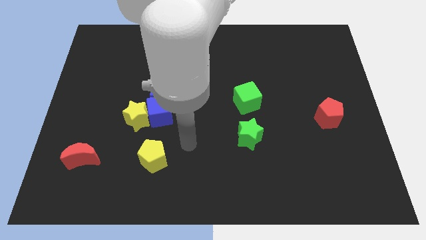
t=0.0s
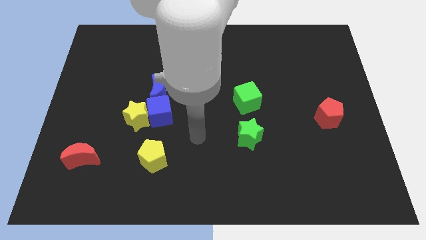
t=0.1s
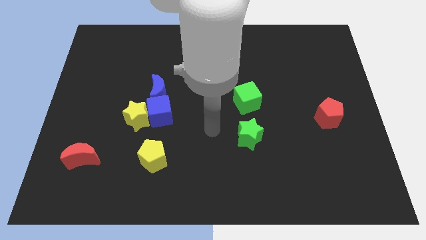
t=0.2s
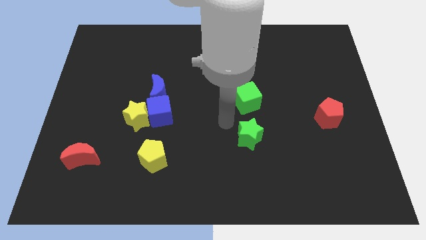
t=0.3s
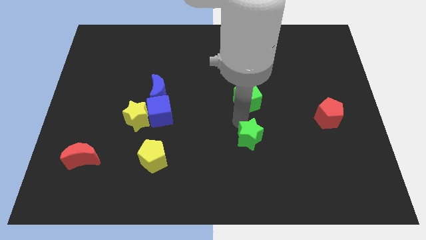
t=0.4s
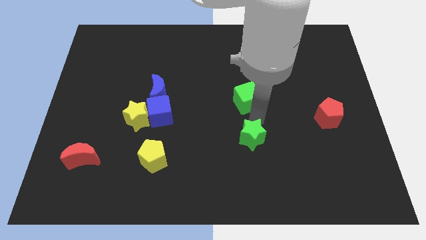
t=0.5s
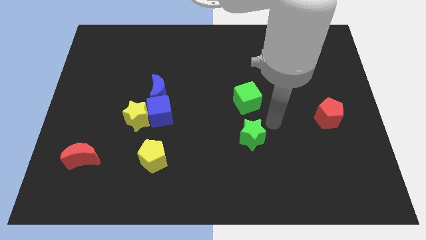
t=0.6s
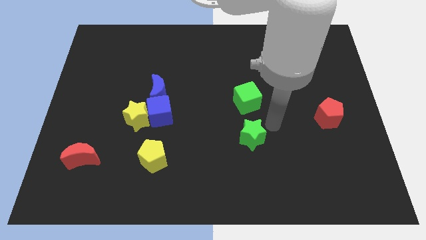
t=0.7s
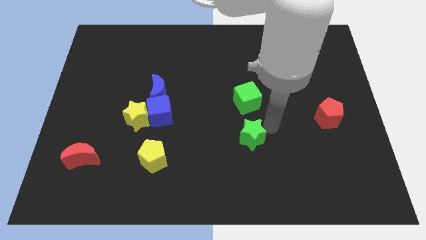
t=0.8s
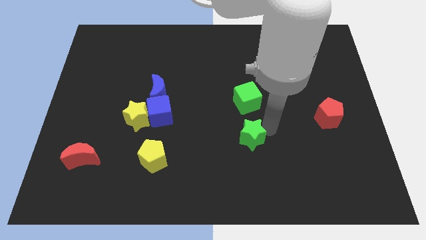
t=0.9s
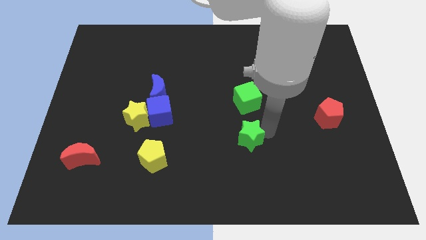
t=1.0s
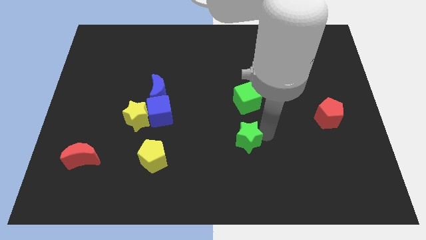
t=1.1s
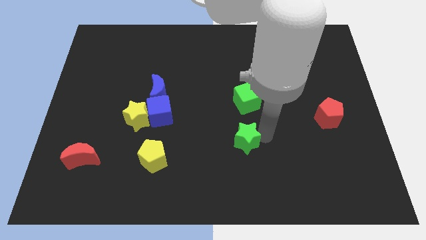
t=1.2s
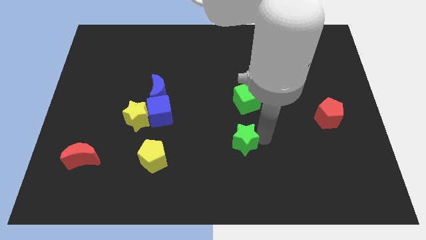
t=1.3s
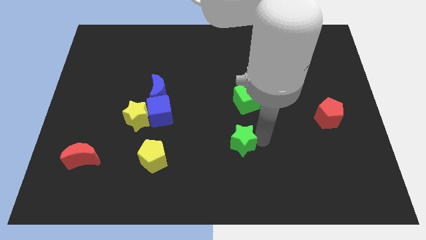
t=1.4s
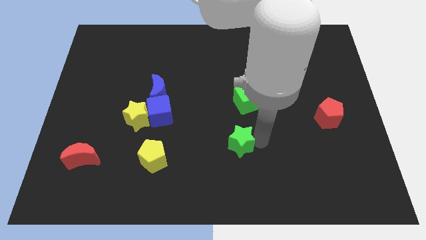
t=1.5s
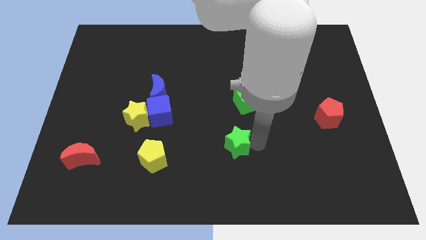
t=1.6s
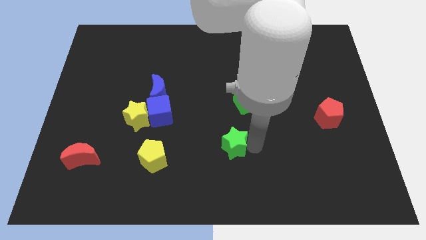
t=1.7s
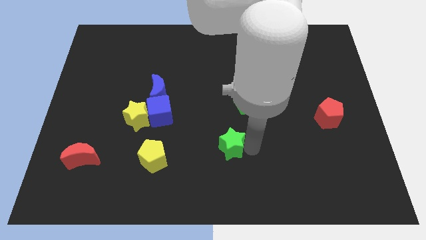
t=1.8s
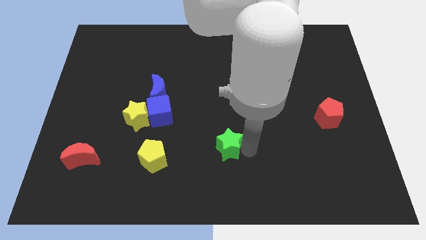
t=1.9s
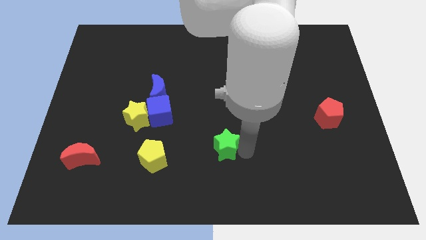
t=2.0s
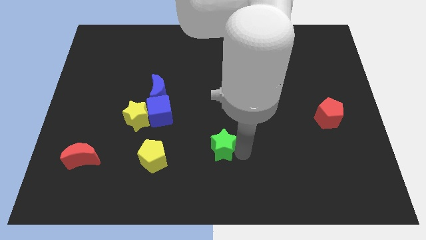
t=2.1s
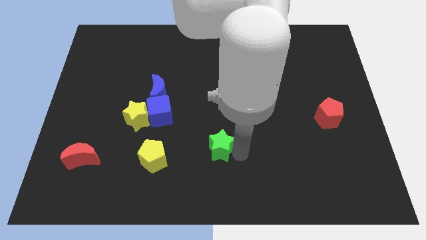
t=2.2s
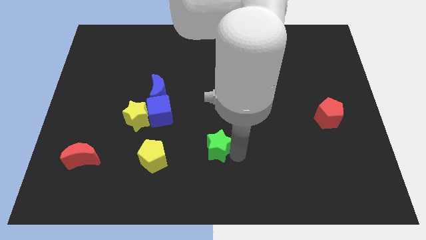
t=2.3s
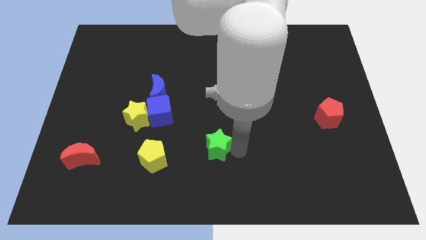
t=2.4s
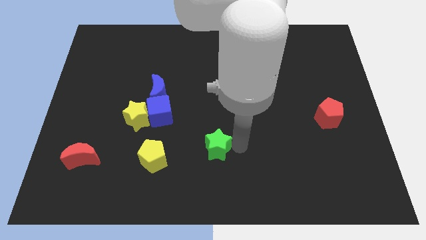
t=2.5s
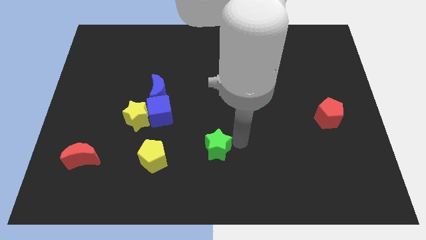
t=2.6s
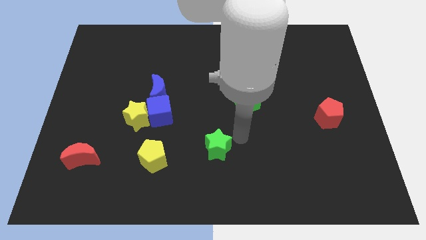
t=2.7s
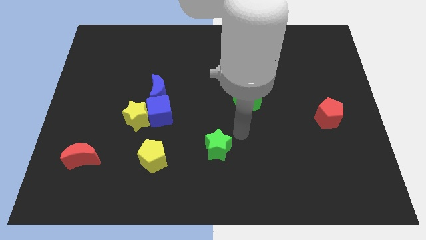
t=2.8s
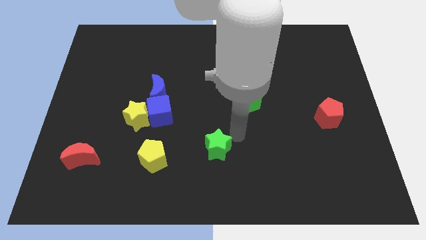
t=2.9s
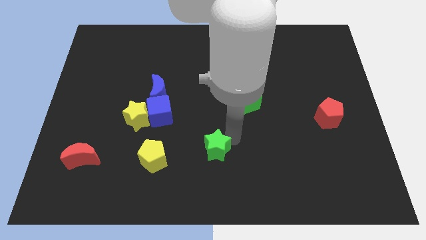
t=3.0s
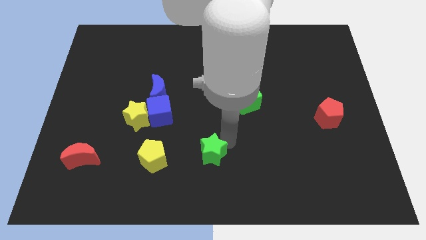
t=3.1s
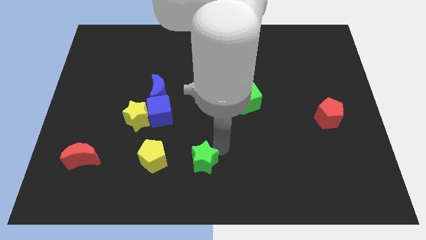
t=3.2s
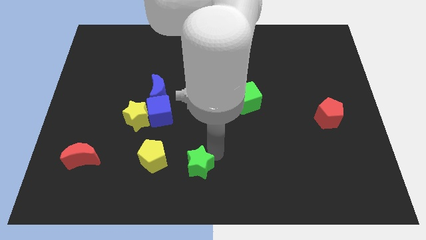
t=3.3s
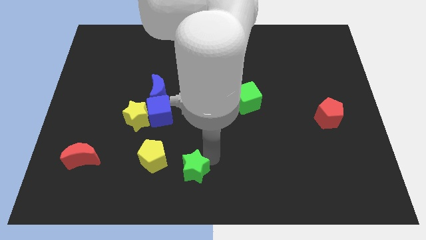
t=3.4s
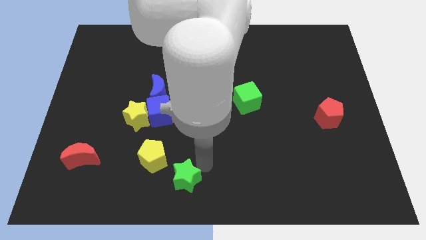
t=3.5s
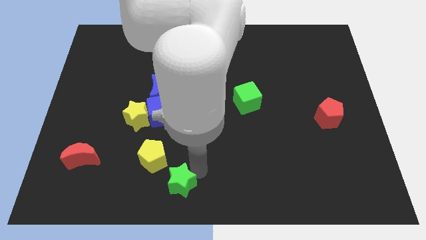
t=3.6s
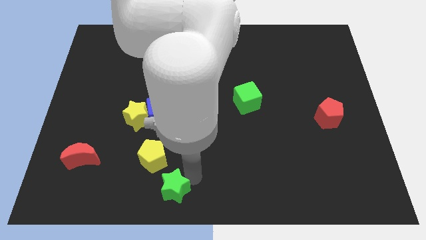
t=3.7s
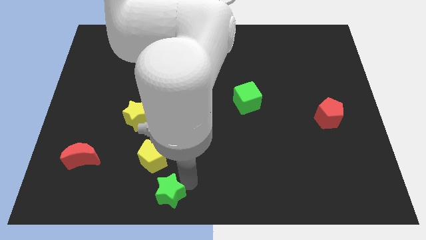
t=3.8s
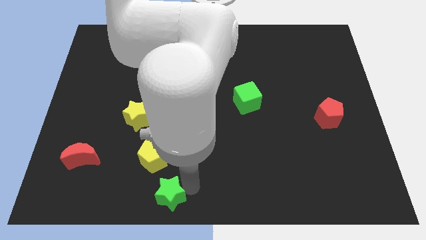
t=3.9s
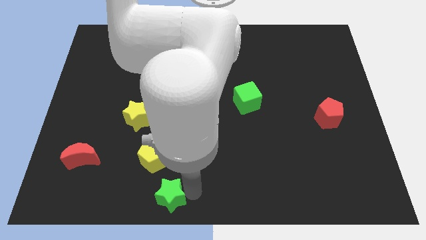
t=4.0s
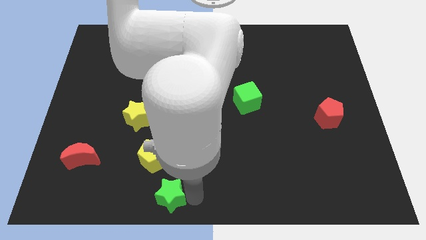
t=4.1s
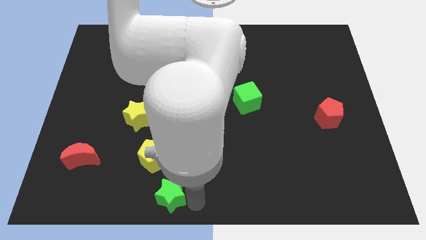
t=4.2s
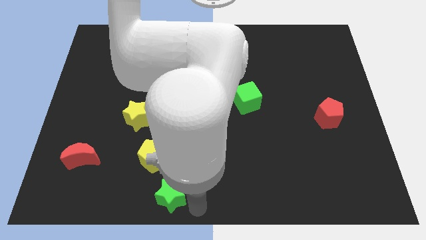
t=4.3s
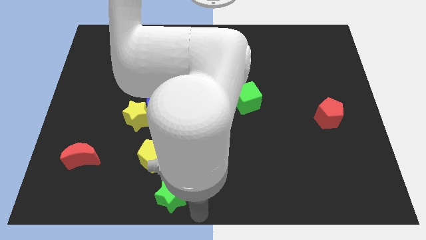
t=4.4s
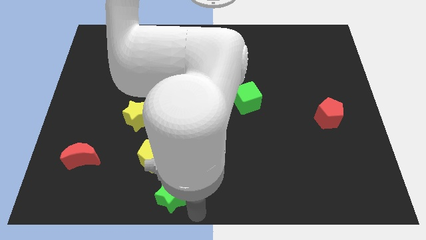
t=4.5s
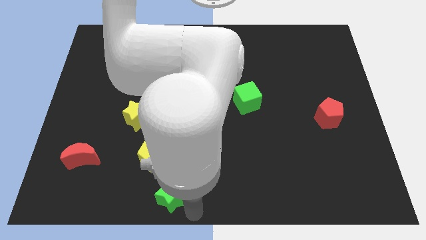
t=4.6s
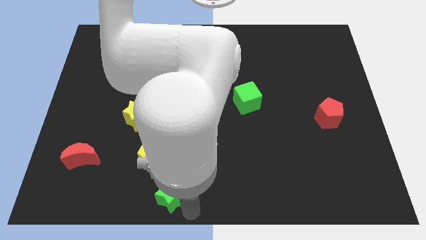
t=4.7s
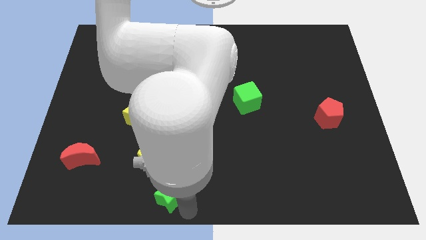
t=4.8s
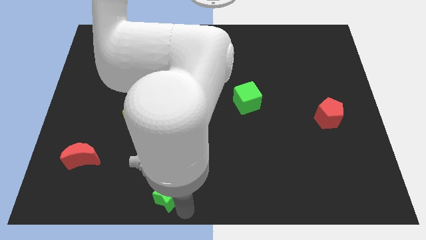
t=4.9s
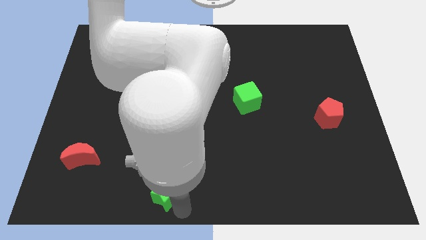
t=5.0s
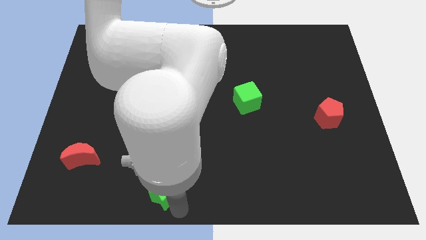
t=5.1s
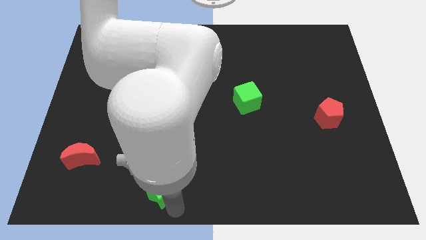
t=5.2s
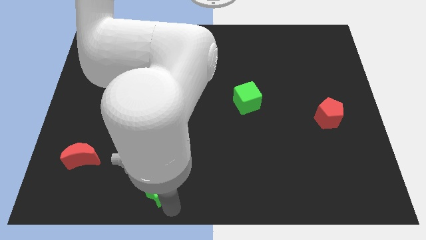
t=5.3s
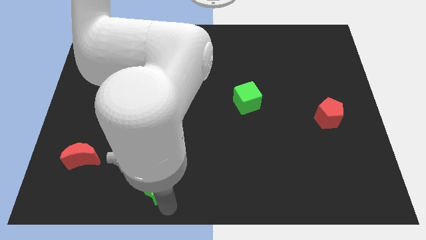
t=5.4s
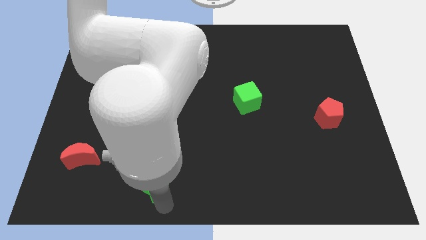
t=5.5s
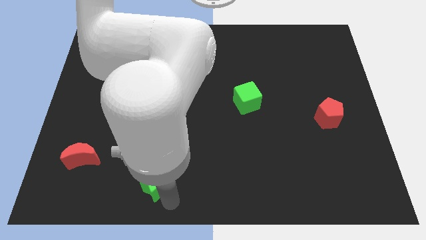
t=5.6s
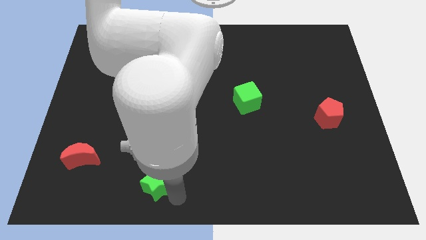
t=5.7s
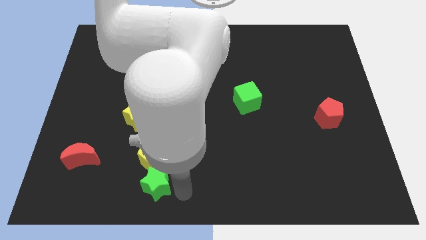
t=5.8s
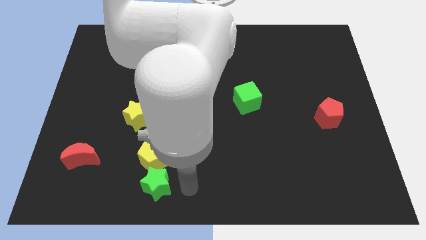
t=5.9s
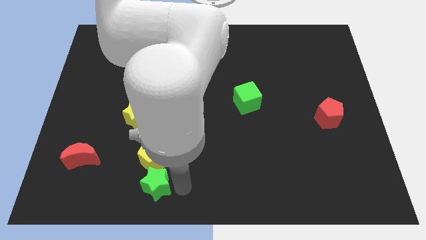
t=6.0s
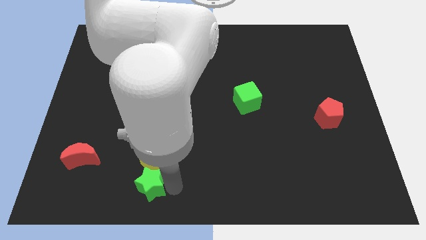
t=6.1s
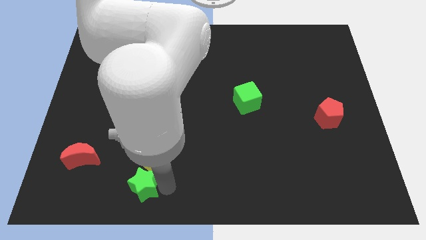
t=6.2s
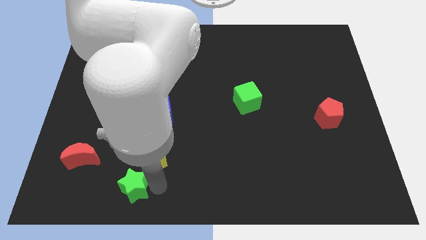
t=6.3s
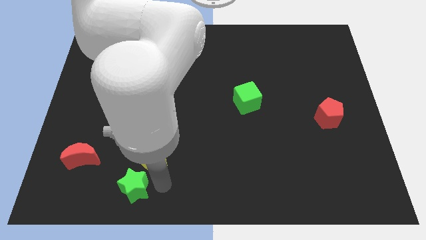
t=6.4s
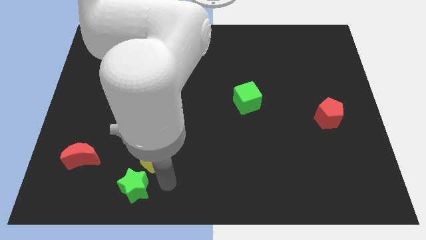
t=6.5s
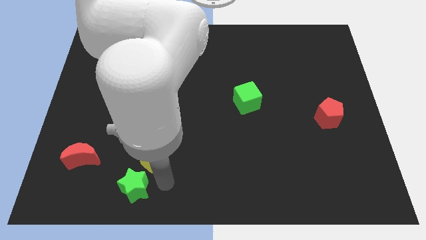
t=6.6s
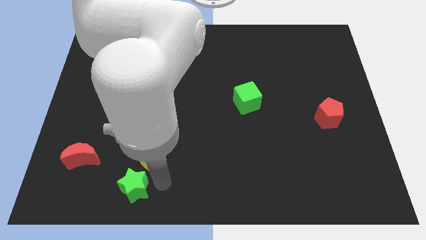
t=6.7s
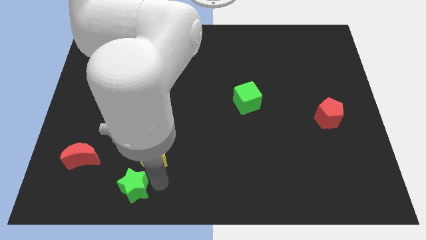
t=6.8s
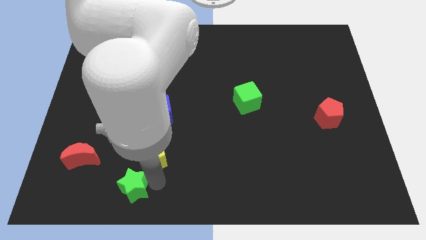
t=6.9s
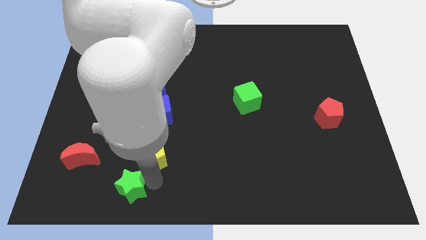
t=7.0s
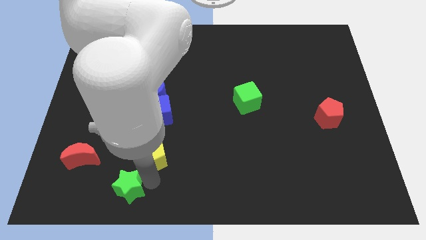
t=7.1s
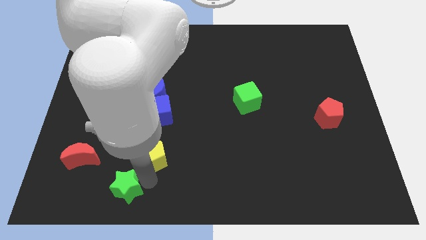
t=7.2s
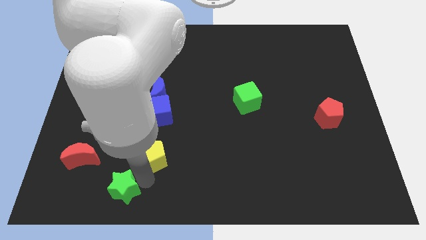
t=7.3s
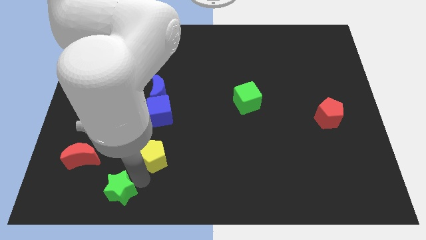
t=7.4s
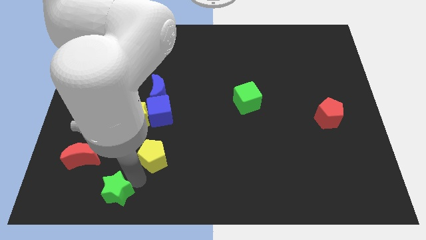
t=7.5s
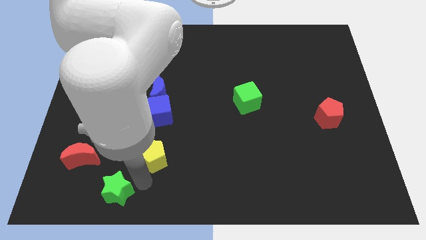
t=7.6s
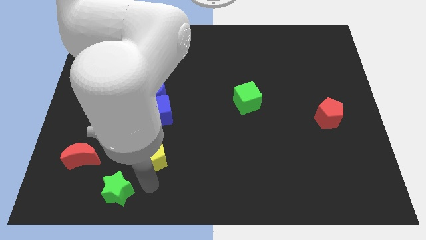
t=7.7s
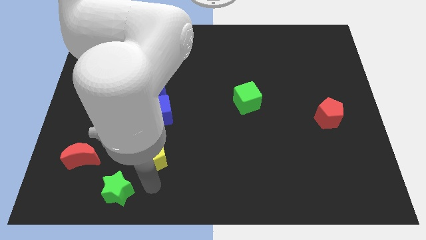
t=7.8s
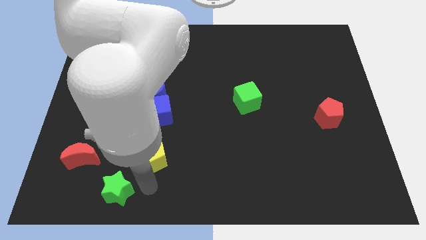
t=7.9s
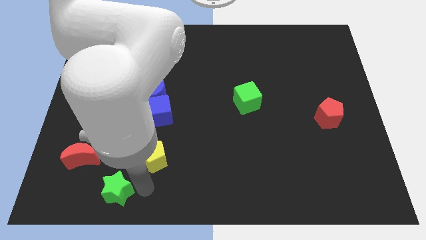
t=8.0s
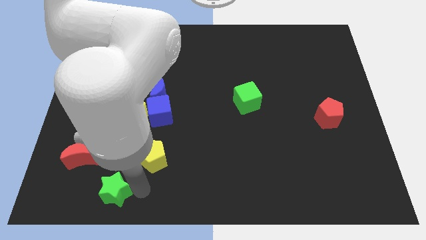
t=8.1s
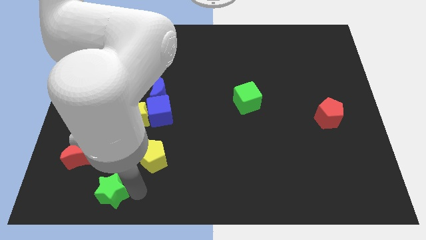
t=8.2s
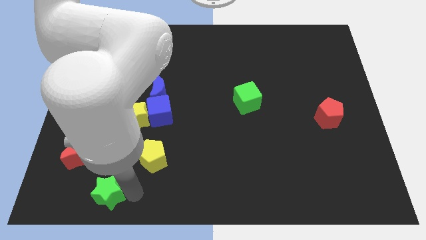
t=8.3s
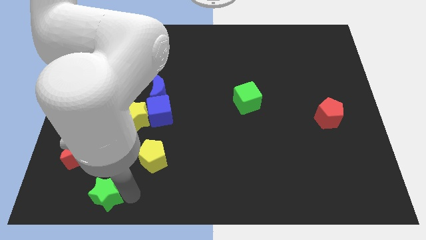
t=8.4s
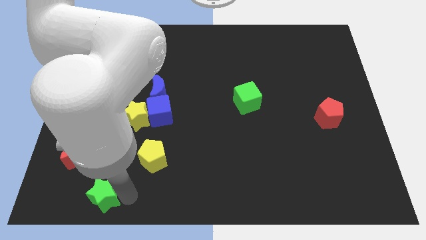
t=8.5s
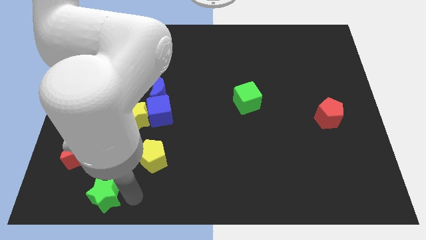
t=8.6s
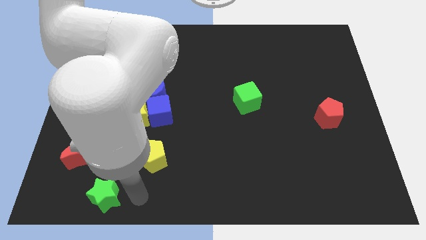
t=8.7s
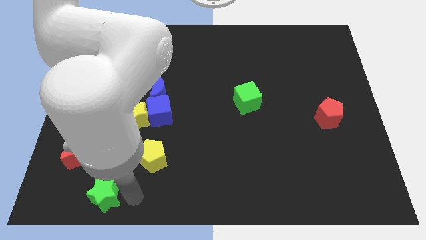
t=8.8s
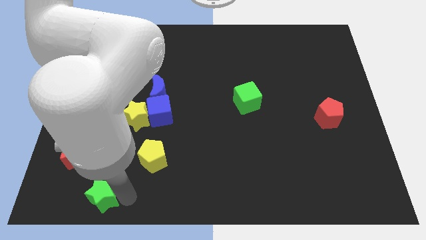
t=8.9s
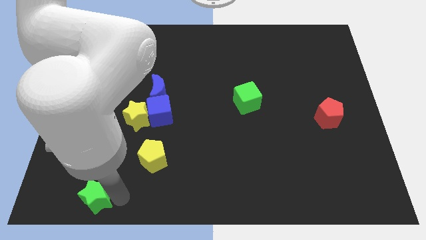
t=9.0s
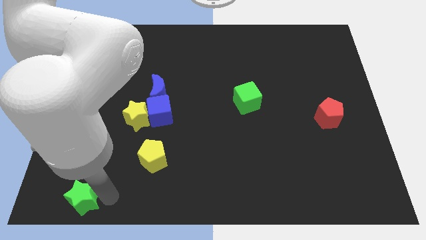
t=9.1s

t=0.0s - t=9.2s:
put the green star to the lower left corner
